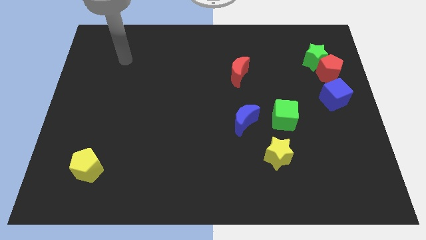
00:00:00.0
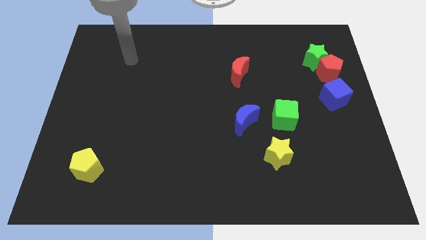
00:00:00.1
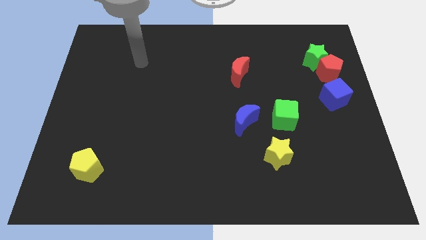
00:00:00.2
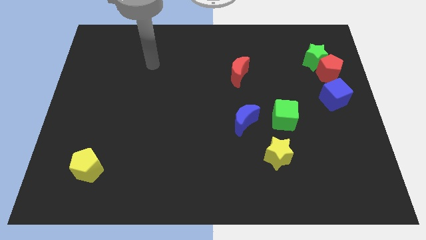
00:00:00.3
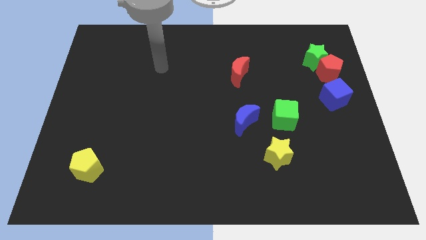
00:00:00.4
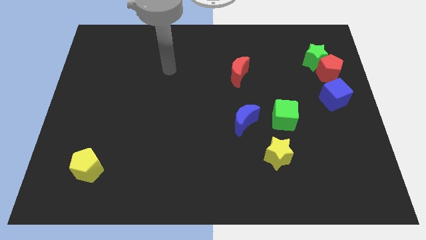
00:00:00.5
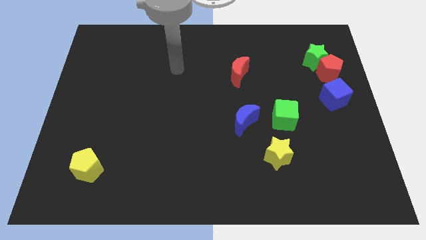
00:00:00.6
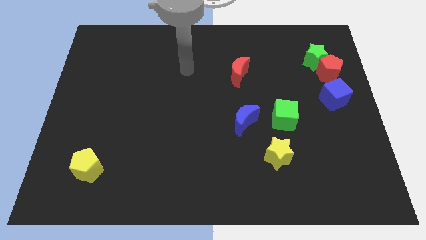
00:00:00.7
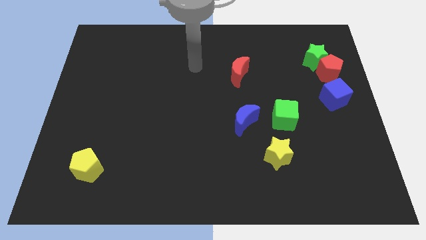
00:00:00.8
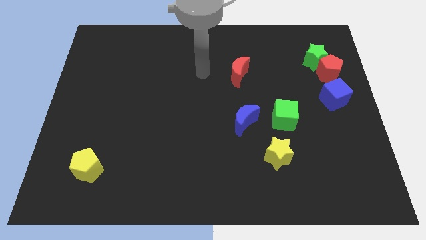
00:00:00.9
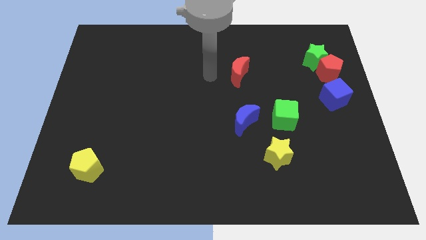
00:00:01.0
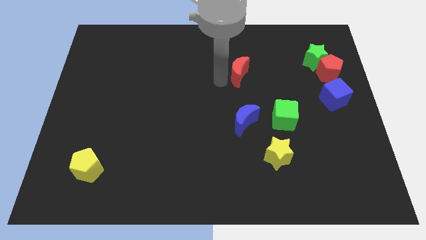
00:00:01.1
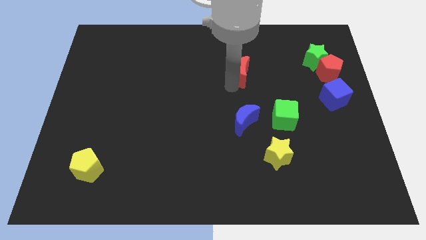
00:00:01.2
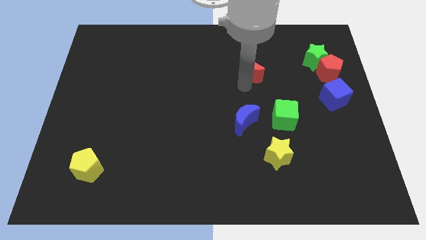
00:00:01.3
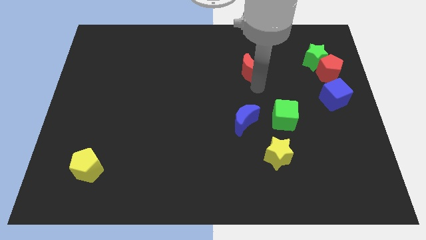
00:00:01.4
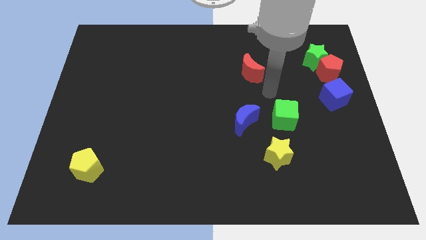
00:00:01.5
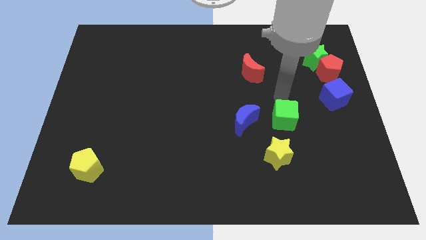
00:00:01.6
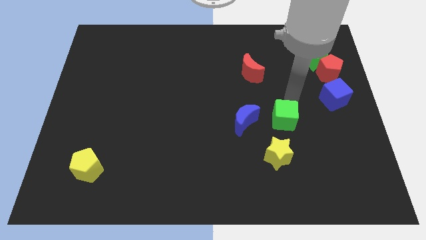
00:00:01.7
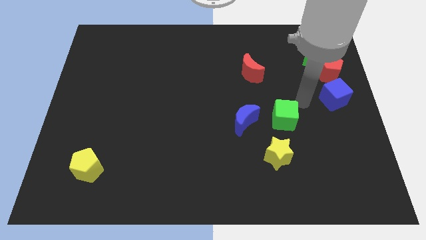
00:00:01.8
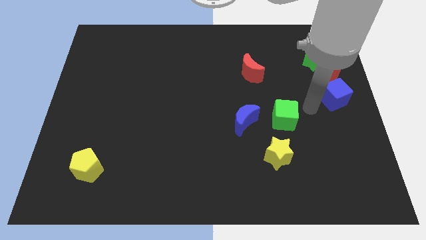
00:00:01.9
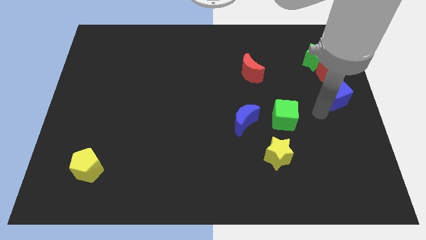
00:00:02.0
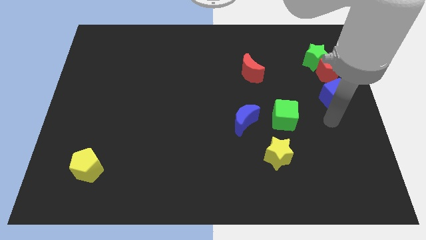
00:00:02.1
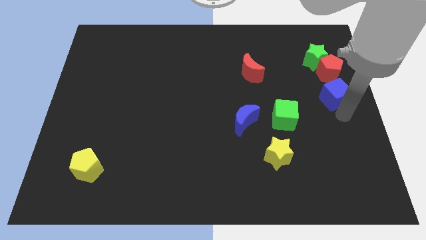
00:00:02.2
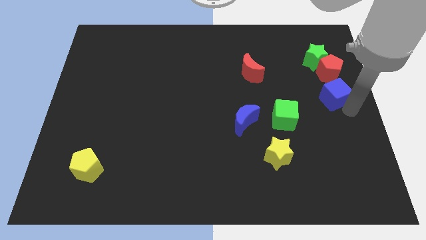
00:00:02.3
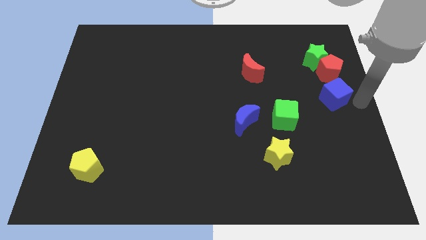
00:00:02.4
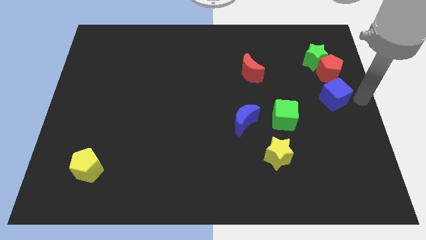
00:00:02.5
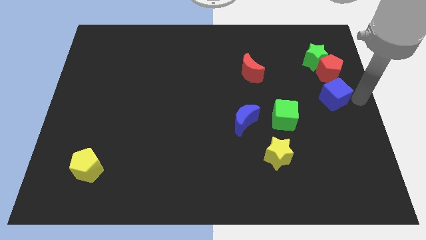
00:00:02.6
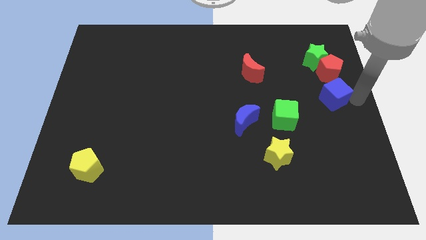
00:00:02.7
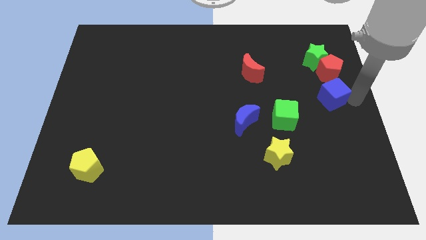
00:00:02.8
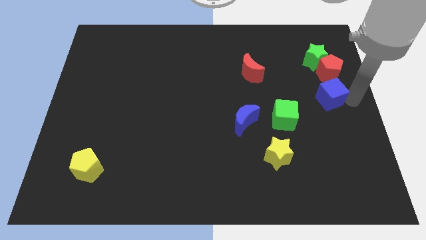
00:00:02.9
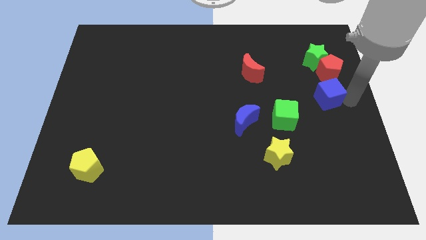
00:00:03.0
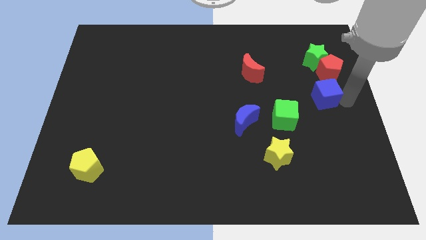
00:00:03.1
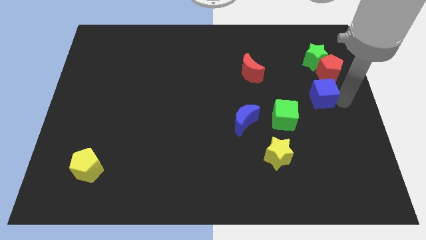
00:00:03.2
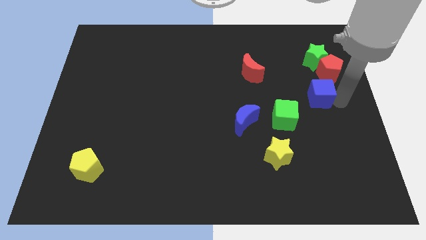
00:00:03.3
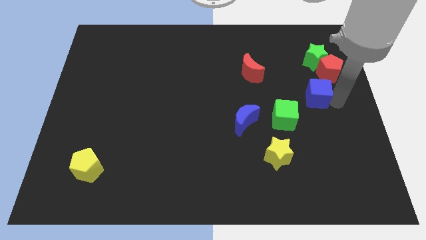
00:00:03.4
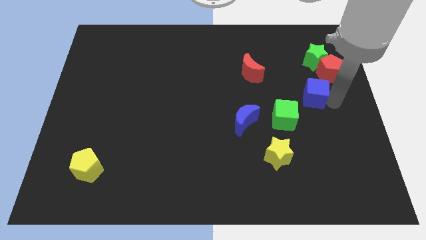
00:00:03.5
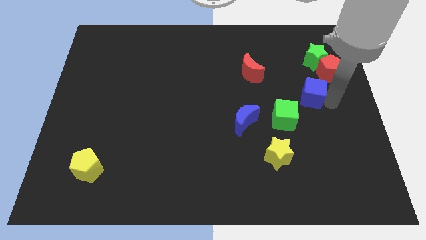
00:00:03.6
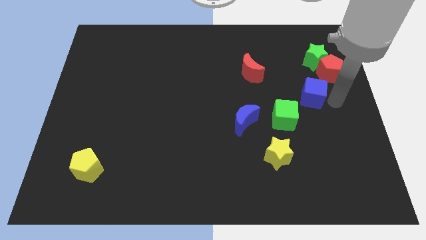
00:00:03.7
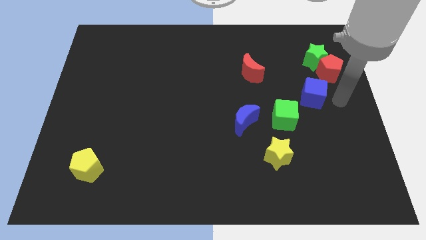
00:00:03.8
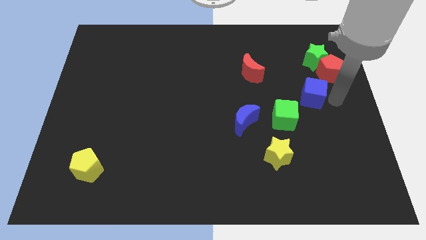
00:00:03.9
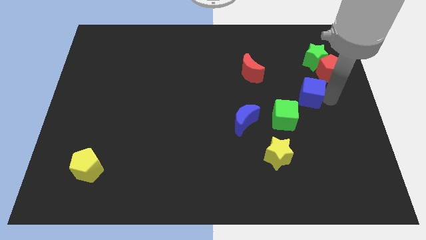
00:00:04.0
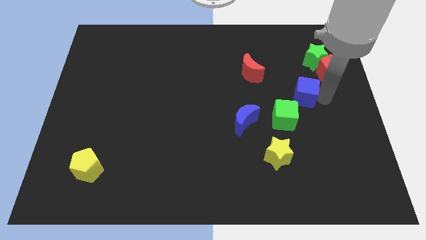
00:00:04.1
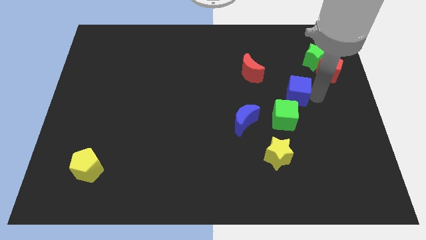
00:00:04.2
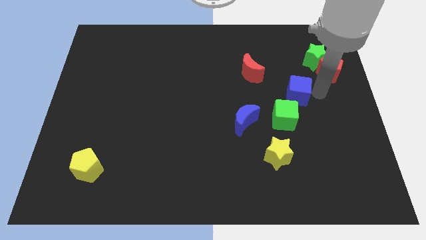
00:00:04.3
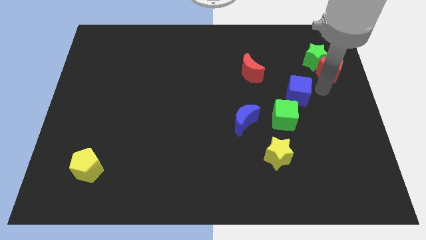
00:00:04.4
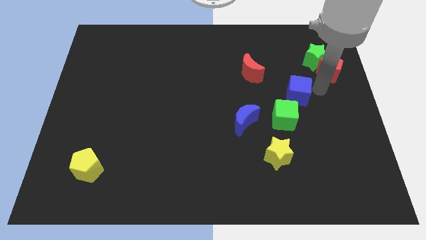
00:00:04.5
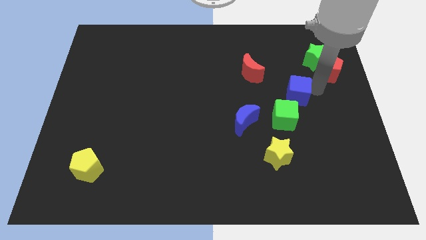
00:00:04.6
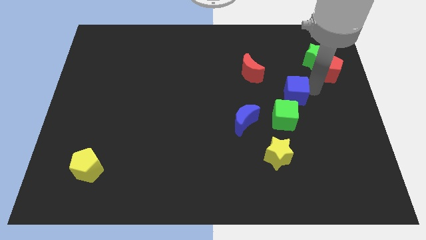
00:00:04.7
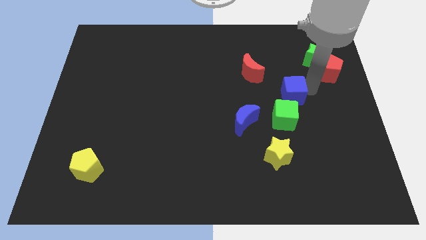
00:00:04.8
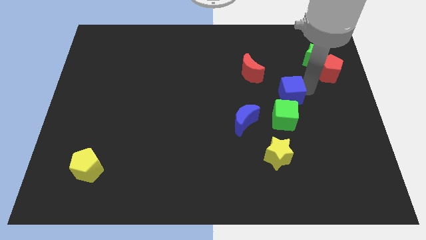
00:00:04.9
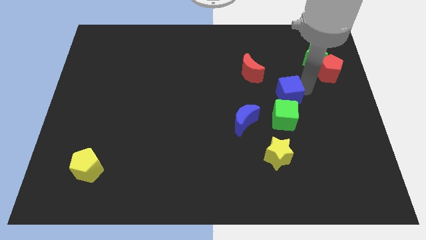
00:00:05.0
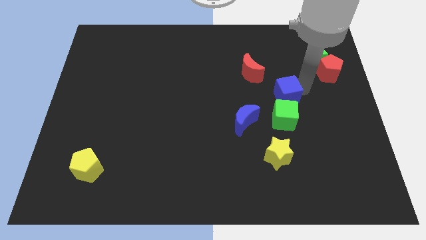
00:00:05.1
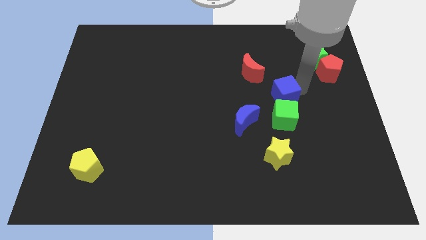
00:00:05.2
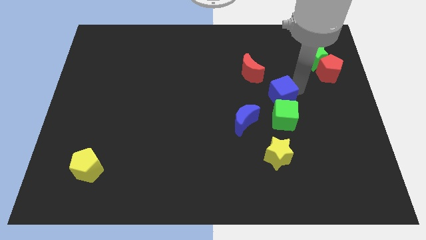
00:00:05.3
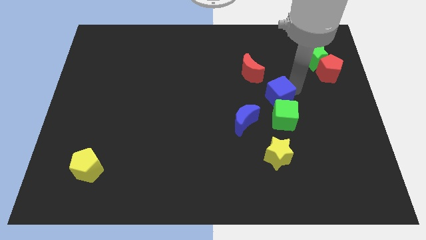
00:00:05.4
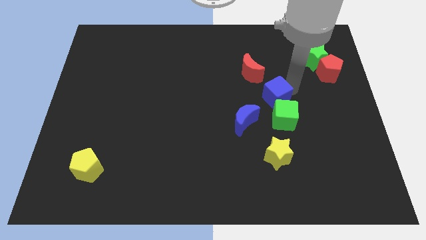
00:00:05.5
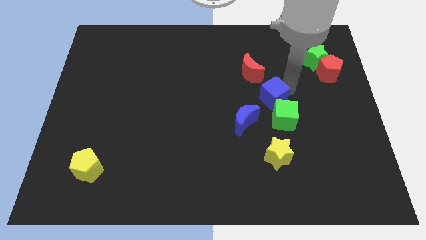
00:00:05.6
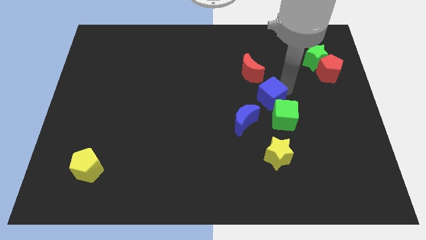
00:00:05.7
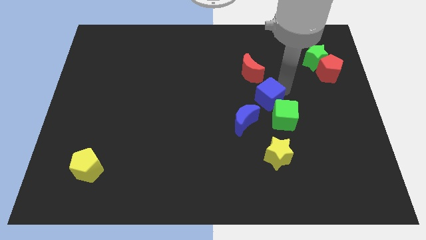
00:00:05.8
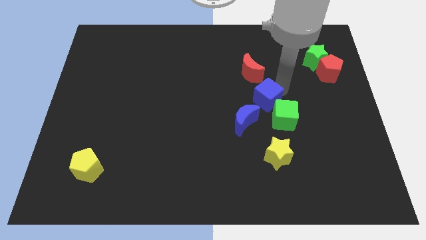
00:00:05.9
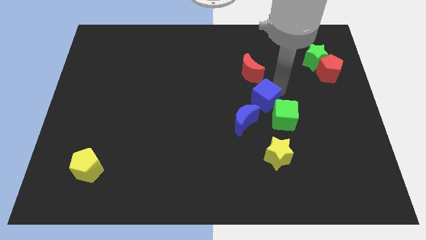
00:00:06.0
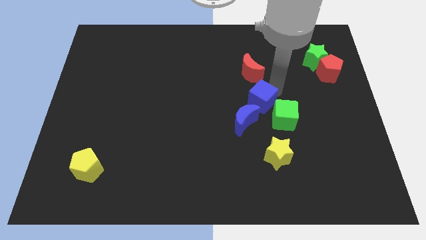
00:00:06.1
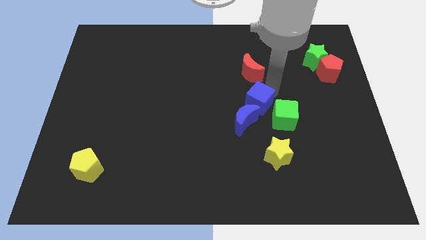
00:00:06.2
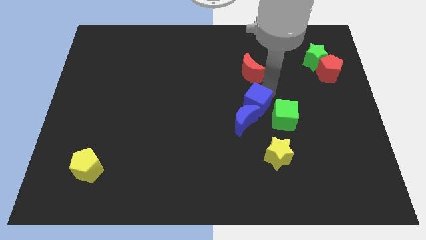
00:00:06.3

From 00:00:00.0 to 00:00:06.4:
push the blue cube close to the blue moon
